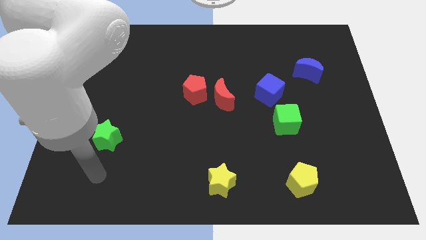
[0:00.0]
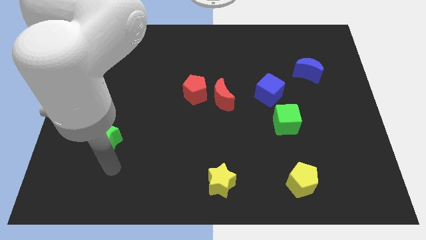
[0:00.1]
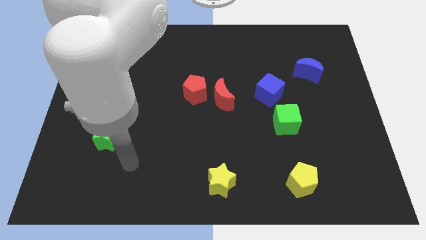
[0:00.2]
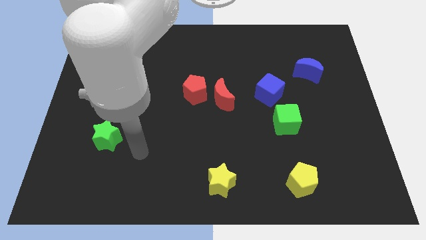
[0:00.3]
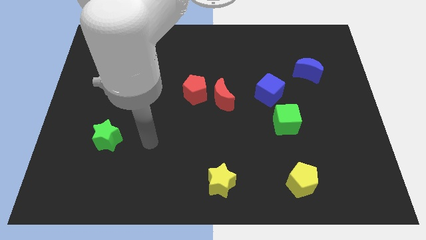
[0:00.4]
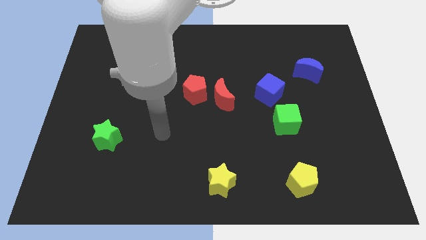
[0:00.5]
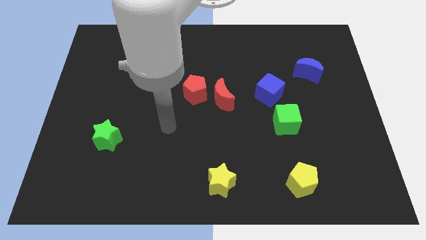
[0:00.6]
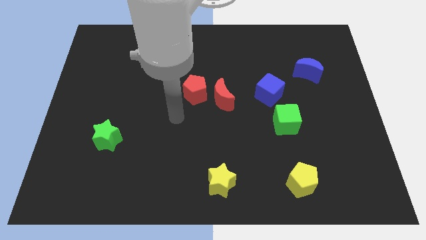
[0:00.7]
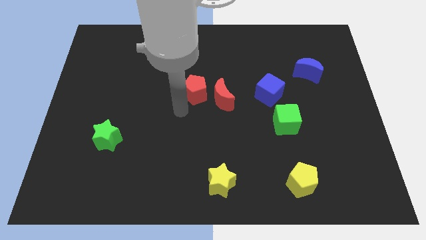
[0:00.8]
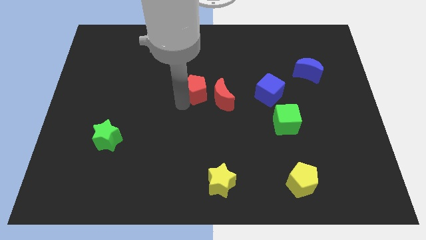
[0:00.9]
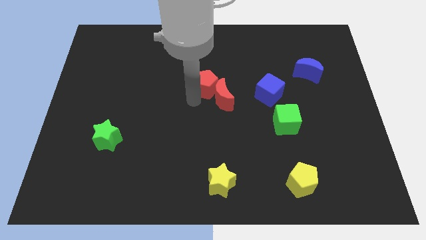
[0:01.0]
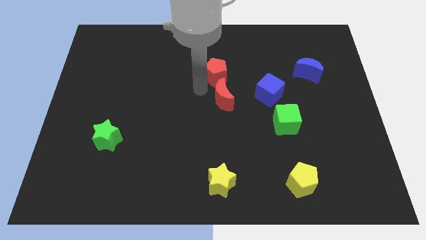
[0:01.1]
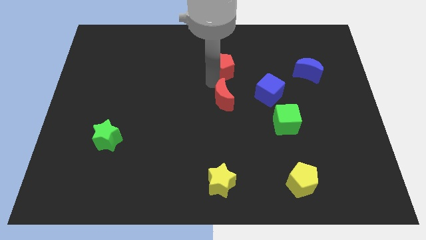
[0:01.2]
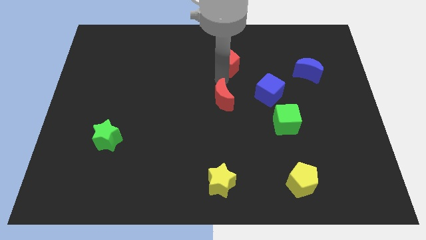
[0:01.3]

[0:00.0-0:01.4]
move the red moon away from the red pentagon

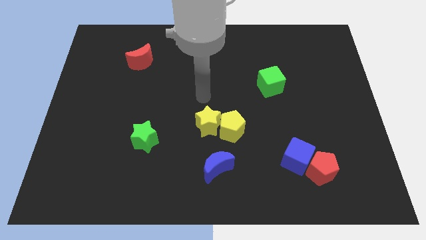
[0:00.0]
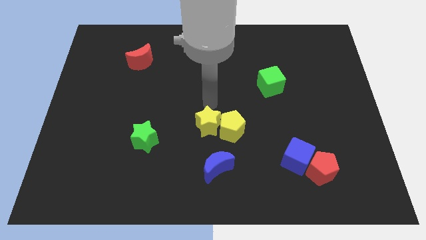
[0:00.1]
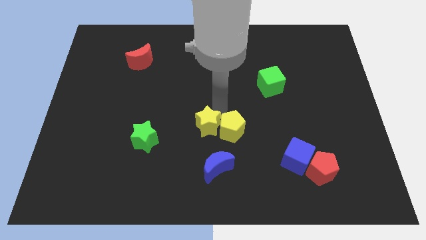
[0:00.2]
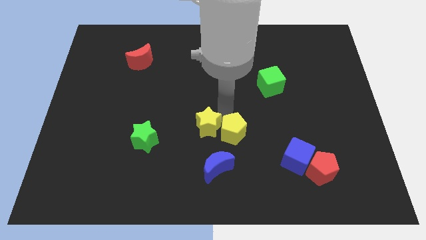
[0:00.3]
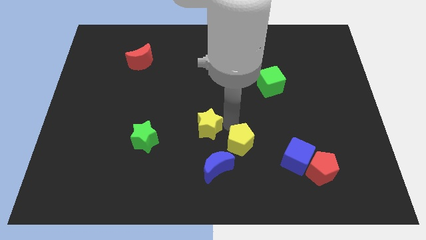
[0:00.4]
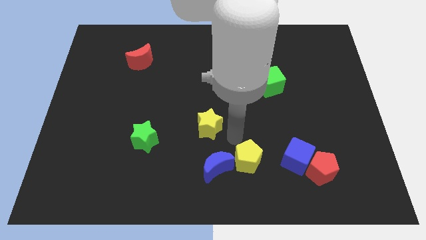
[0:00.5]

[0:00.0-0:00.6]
move the yellow star away from the yellow pentagon

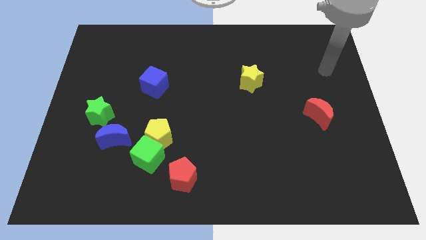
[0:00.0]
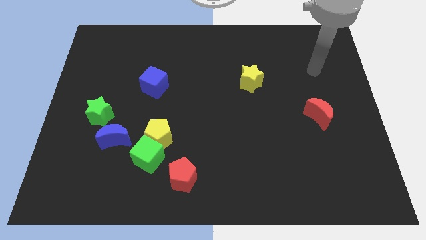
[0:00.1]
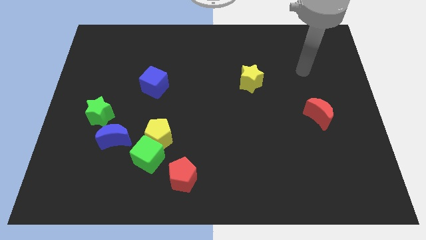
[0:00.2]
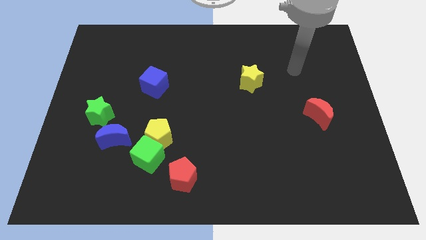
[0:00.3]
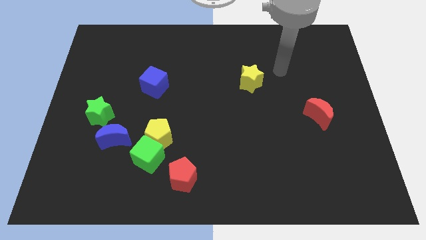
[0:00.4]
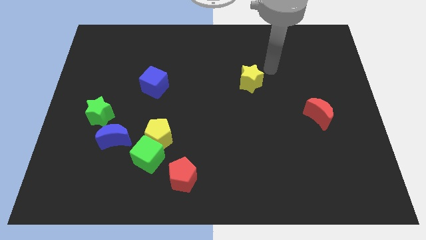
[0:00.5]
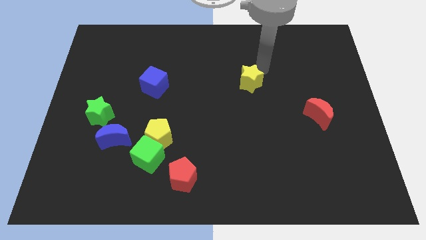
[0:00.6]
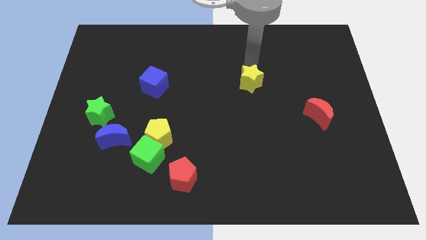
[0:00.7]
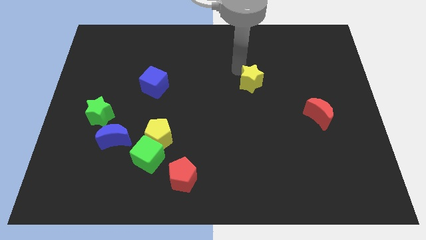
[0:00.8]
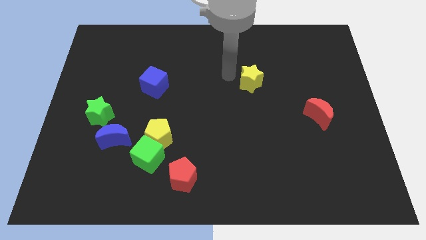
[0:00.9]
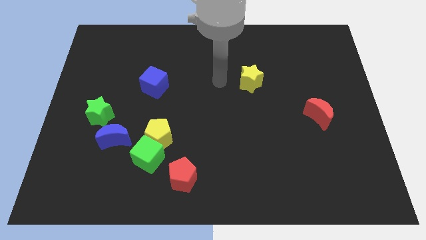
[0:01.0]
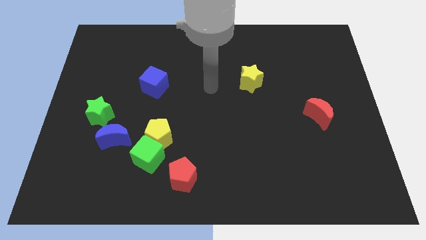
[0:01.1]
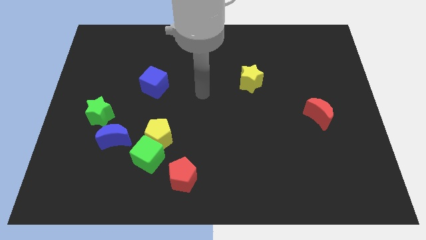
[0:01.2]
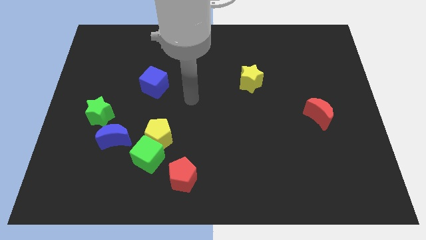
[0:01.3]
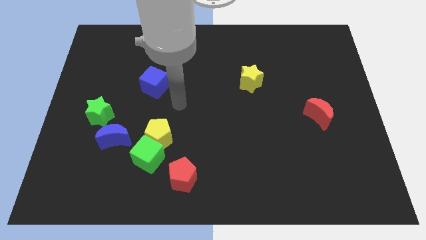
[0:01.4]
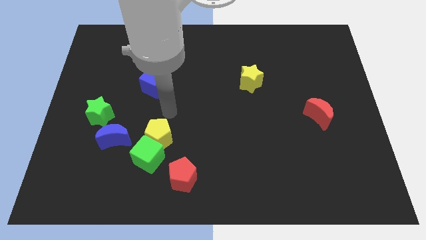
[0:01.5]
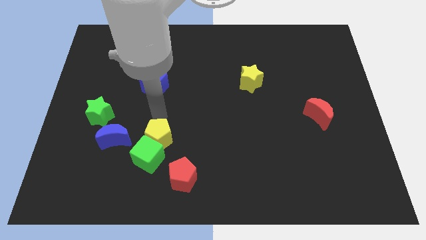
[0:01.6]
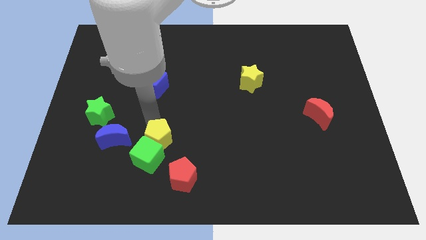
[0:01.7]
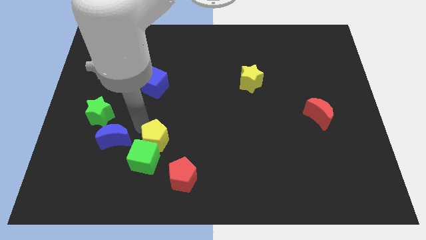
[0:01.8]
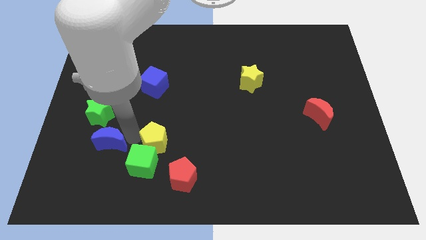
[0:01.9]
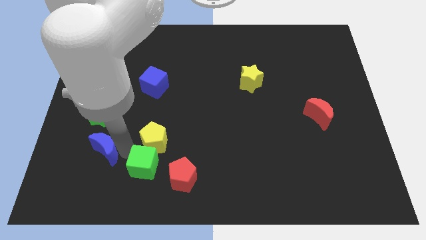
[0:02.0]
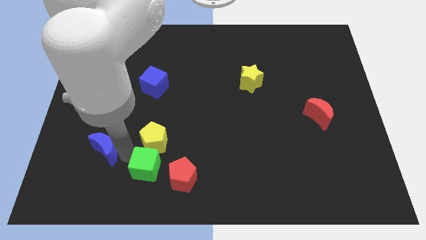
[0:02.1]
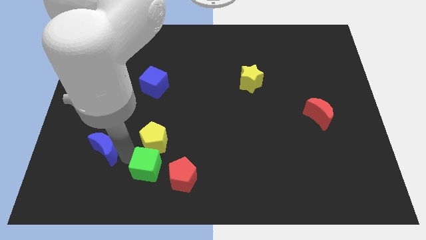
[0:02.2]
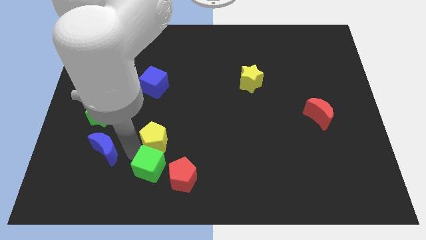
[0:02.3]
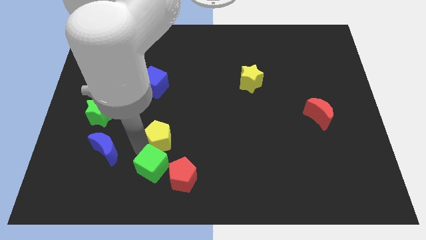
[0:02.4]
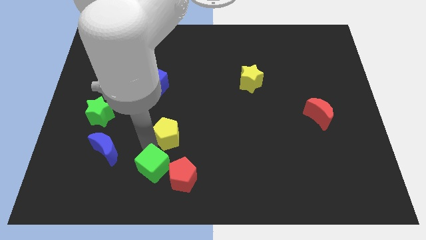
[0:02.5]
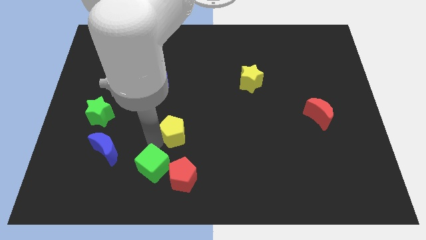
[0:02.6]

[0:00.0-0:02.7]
separate the yellow pentagon from the green cube and blue moon

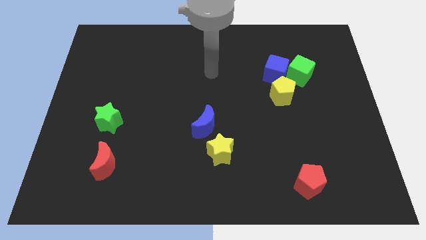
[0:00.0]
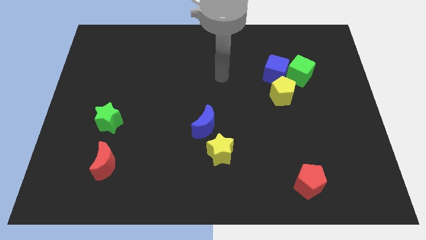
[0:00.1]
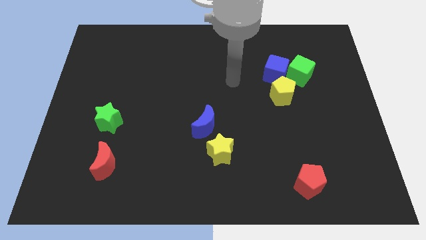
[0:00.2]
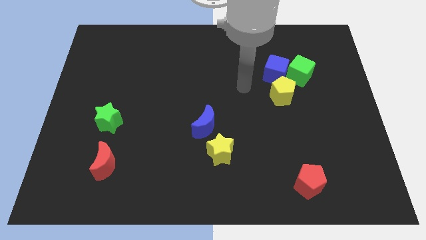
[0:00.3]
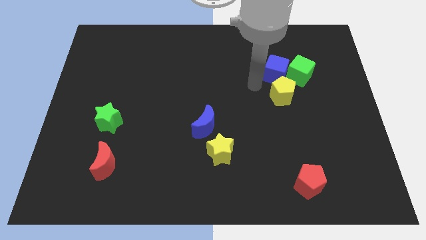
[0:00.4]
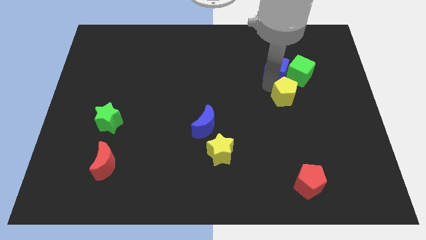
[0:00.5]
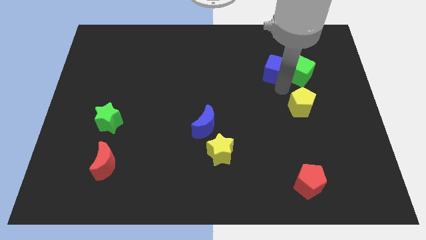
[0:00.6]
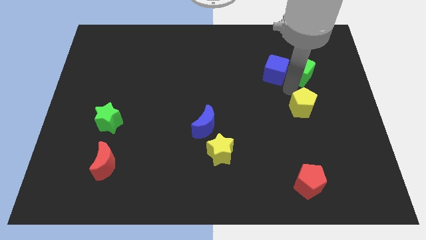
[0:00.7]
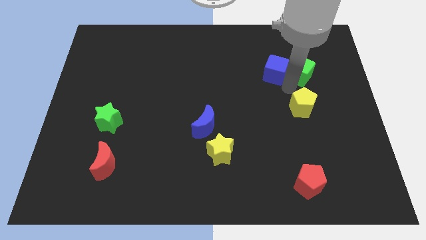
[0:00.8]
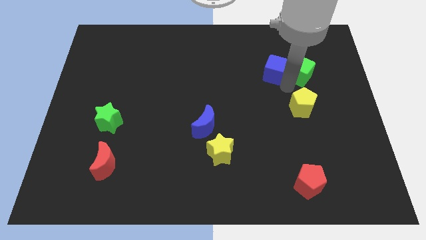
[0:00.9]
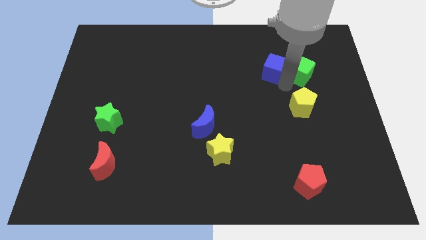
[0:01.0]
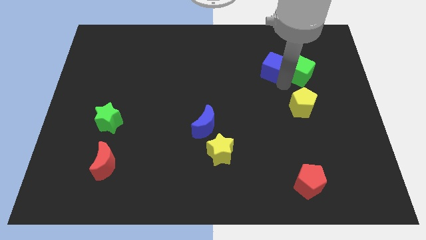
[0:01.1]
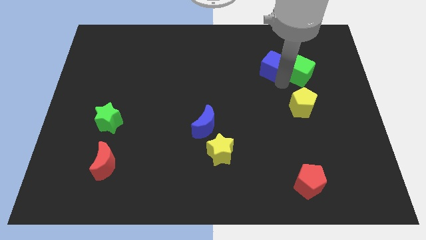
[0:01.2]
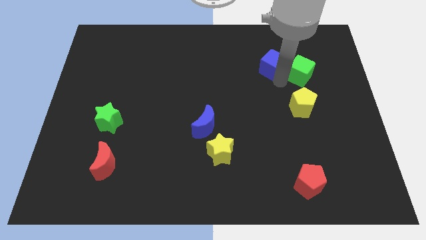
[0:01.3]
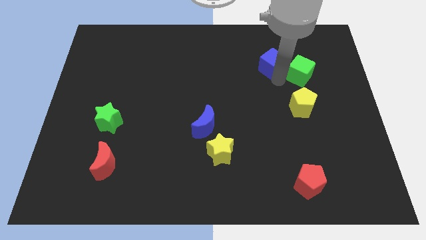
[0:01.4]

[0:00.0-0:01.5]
separate the blue cube from the green cube and yellow pentagon

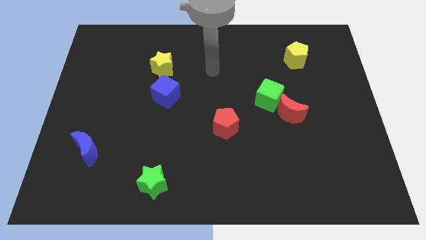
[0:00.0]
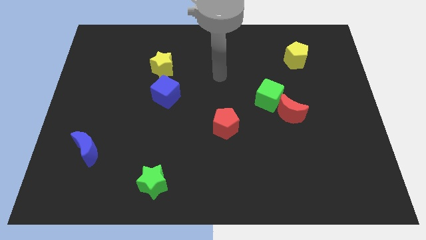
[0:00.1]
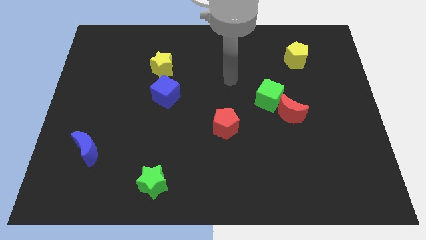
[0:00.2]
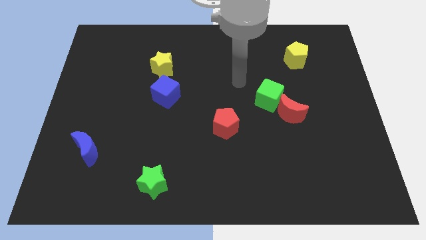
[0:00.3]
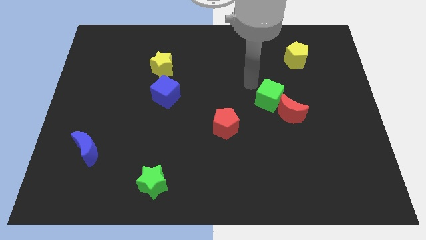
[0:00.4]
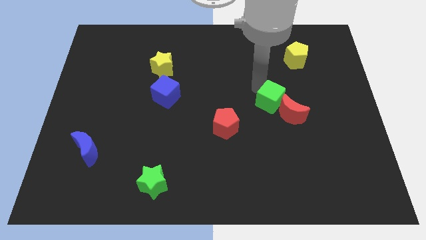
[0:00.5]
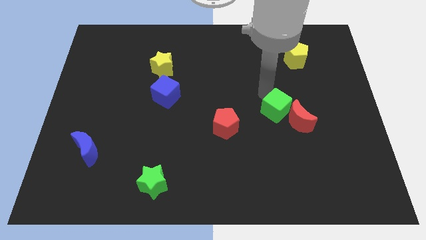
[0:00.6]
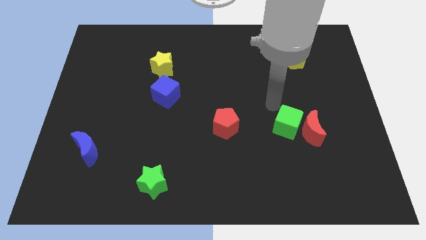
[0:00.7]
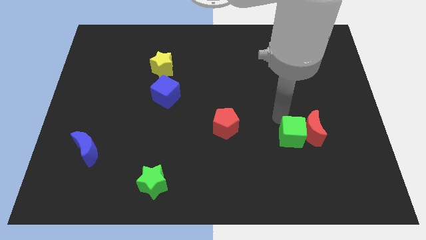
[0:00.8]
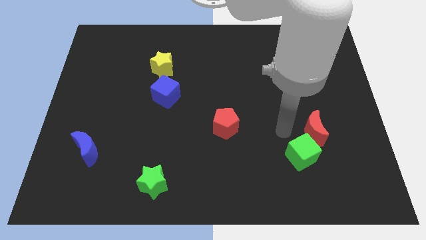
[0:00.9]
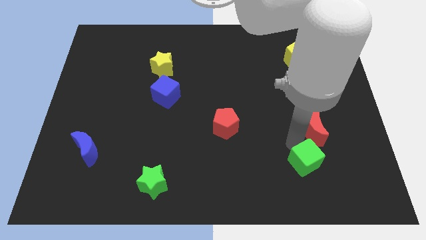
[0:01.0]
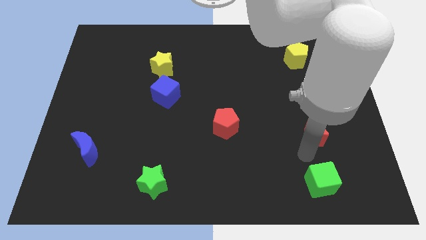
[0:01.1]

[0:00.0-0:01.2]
pull the red moon apart from the green cube

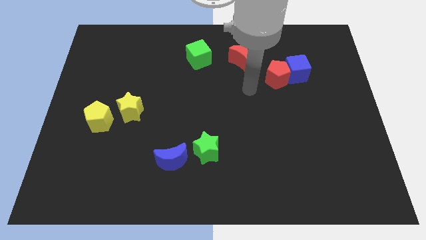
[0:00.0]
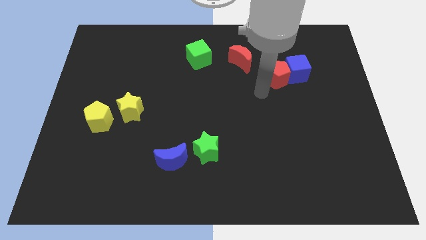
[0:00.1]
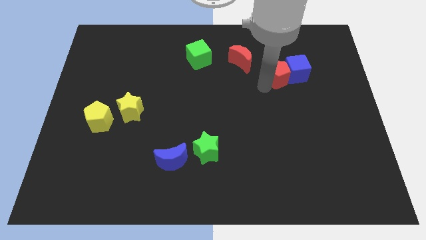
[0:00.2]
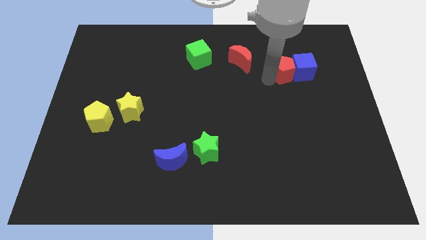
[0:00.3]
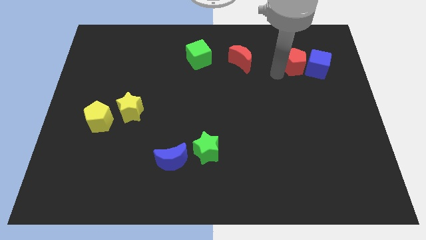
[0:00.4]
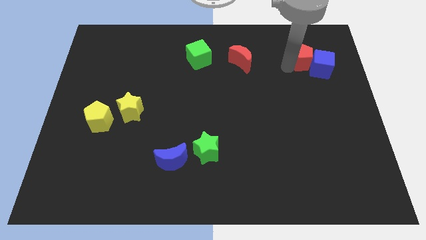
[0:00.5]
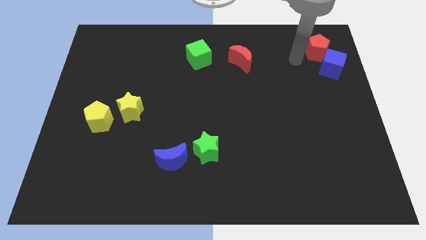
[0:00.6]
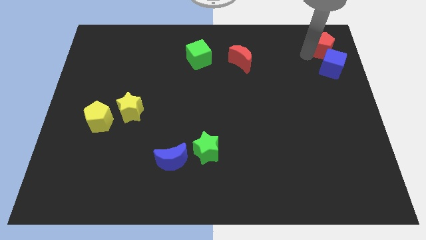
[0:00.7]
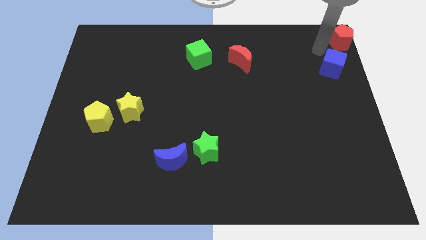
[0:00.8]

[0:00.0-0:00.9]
pull the blue cube apart from the red pentagon

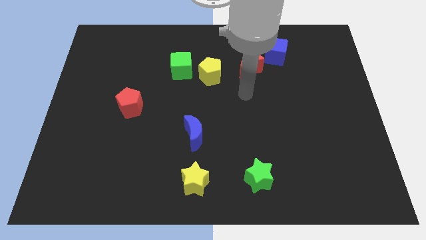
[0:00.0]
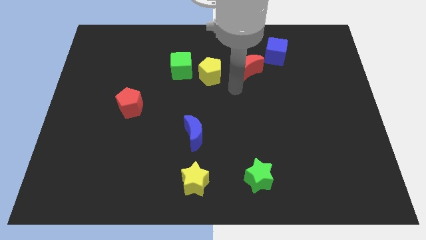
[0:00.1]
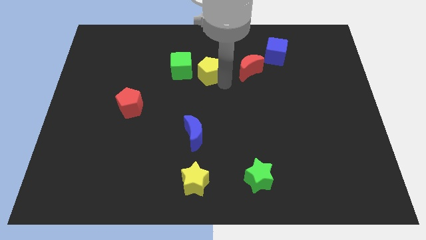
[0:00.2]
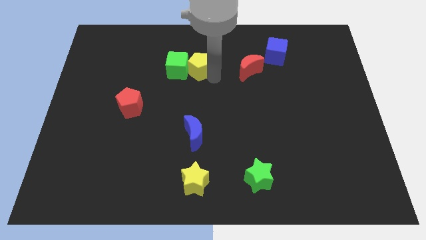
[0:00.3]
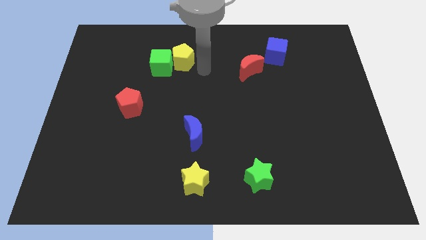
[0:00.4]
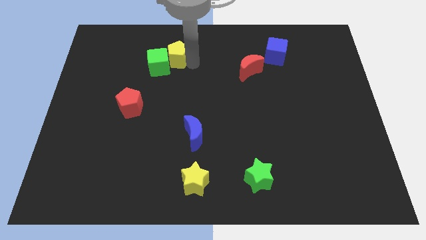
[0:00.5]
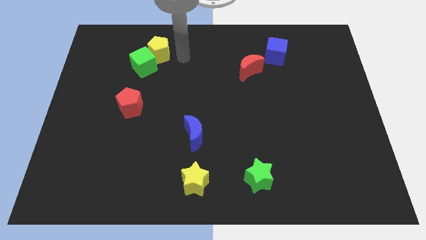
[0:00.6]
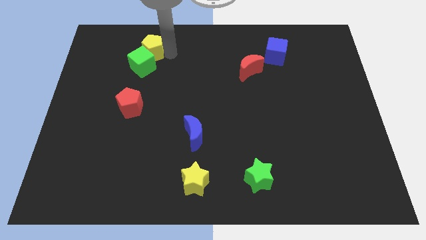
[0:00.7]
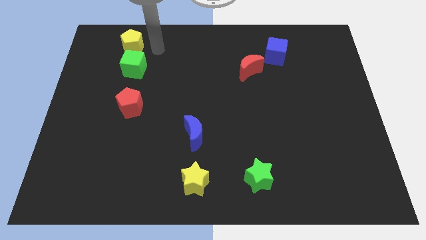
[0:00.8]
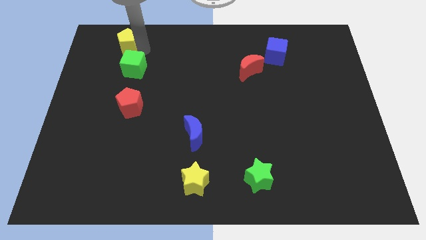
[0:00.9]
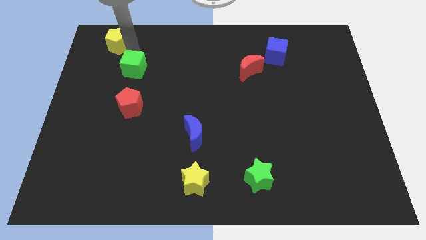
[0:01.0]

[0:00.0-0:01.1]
pull the green cube apart from the yellow pentagon
